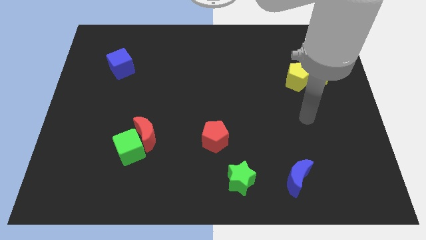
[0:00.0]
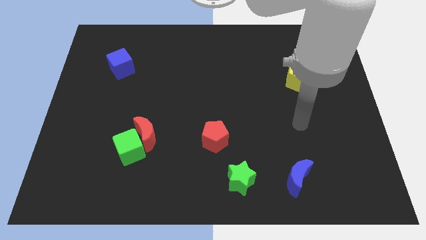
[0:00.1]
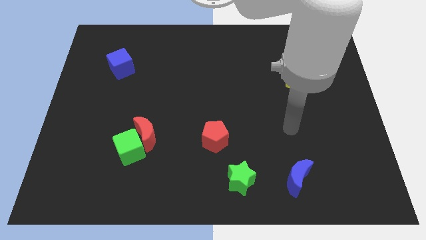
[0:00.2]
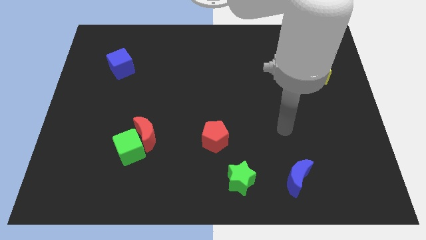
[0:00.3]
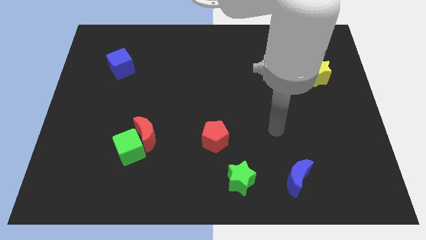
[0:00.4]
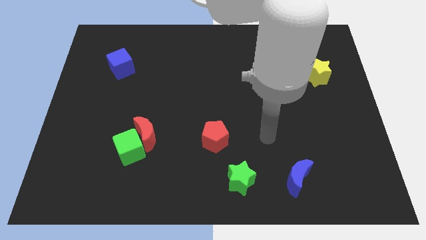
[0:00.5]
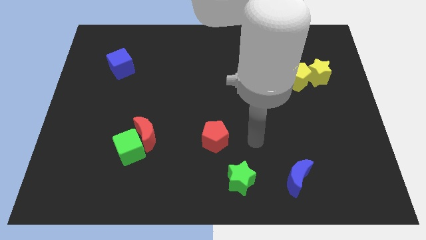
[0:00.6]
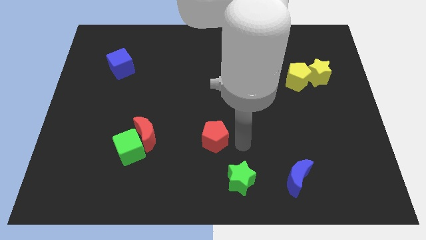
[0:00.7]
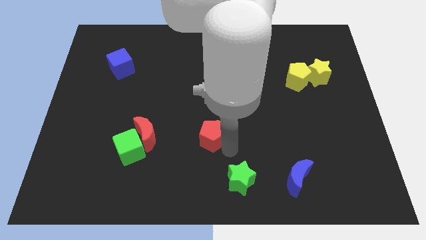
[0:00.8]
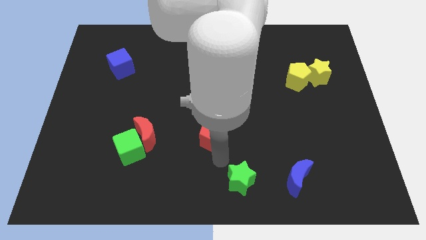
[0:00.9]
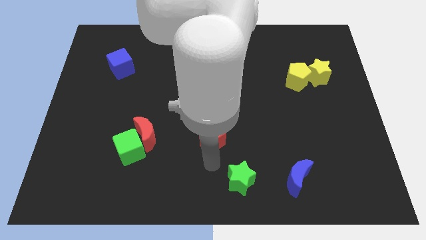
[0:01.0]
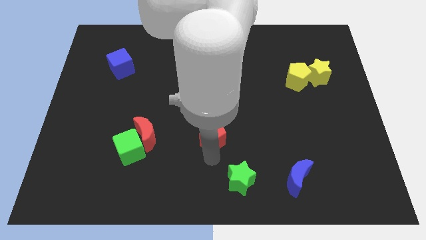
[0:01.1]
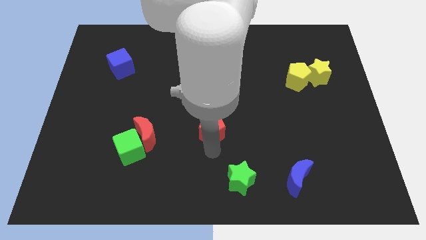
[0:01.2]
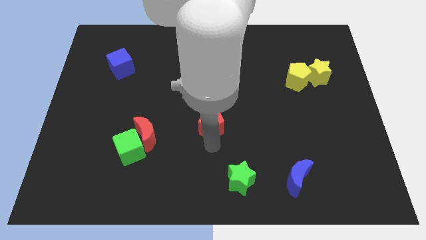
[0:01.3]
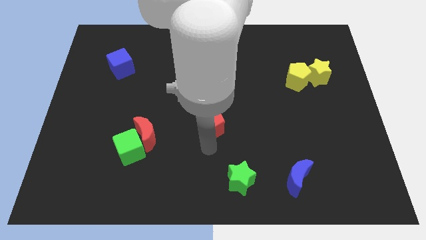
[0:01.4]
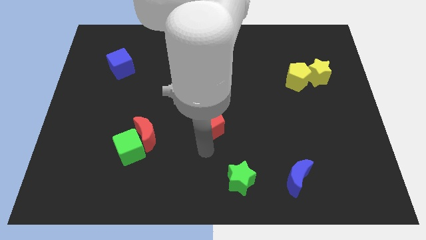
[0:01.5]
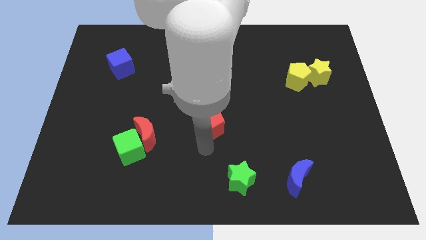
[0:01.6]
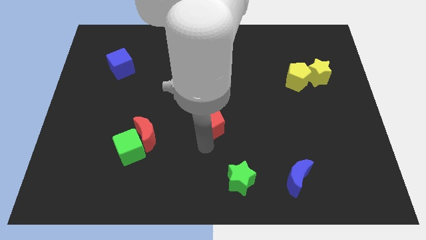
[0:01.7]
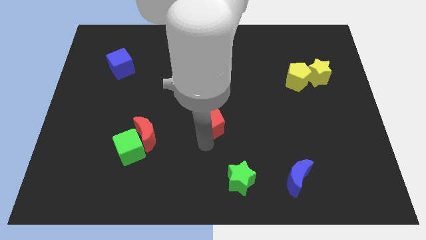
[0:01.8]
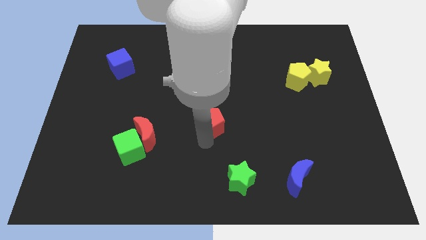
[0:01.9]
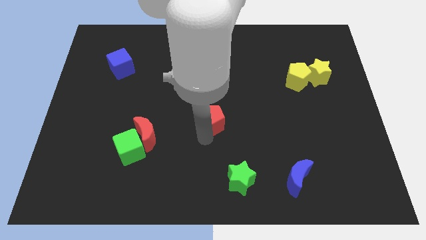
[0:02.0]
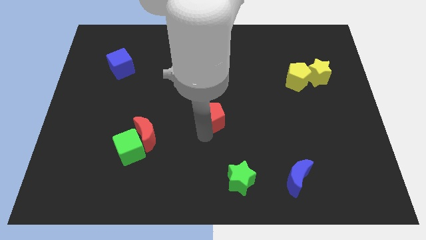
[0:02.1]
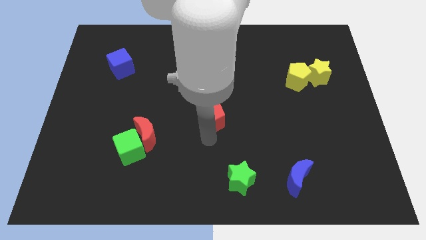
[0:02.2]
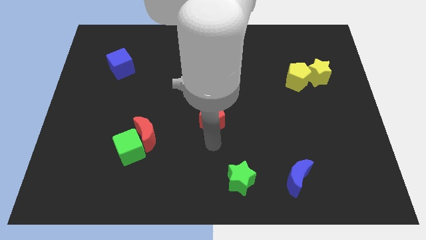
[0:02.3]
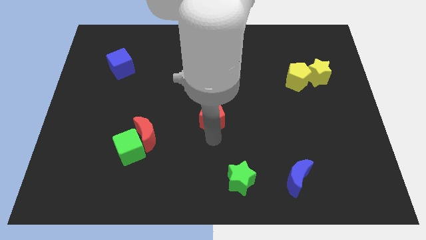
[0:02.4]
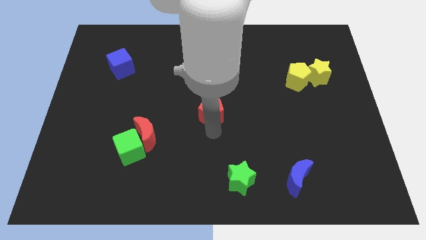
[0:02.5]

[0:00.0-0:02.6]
move the red pentagon slightly upwards

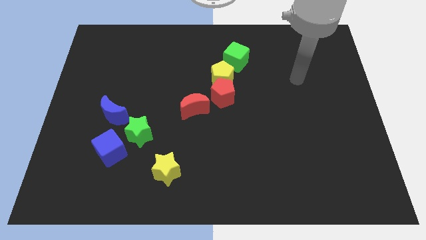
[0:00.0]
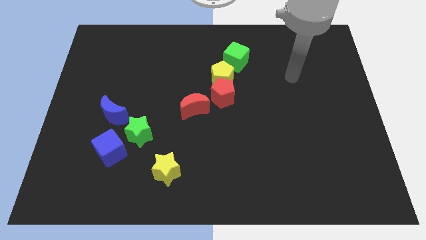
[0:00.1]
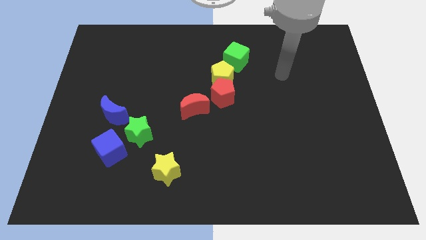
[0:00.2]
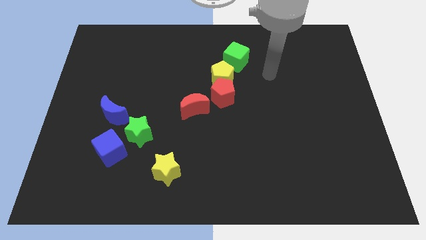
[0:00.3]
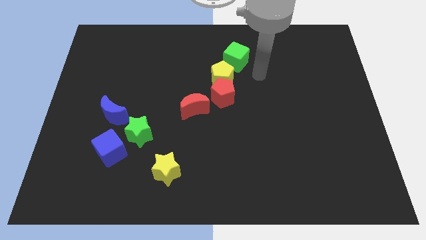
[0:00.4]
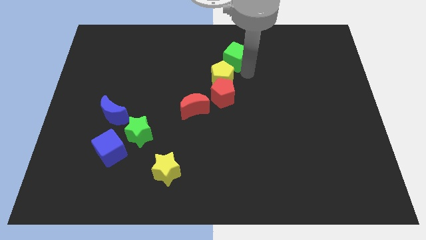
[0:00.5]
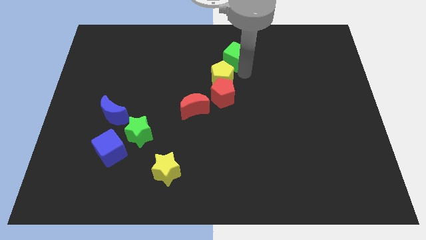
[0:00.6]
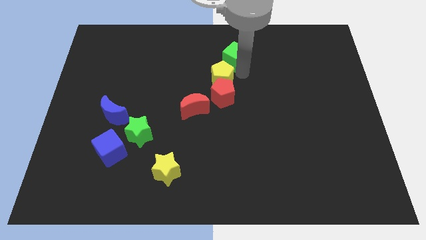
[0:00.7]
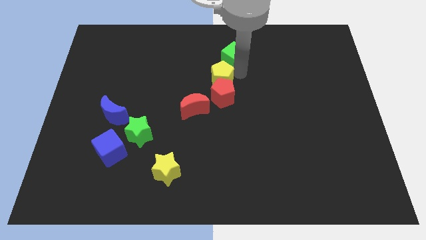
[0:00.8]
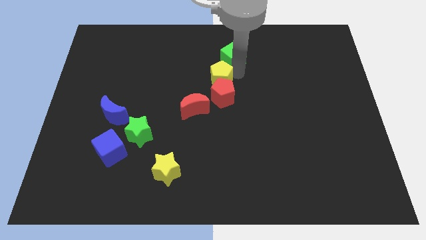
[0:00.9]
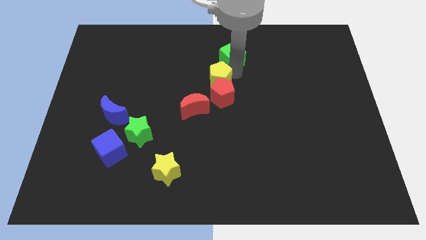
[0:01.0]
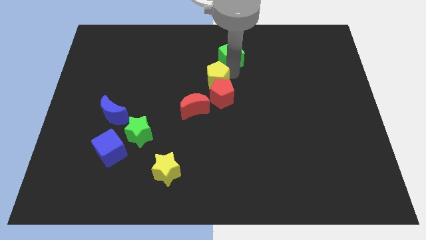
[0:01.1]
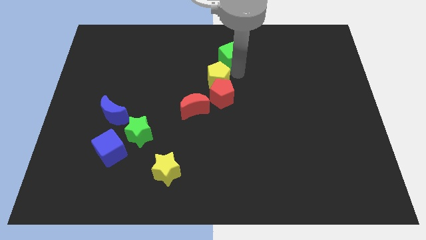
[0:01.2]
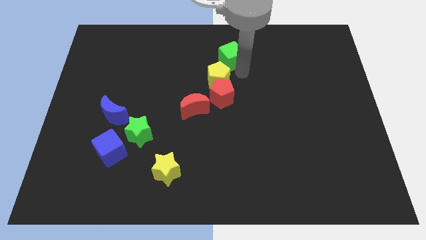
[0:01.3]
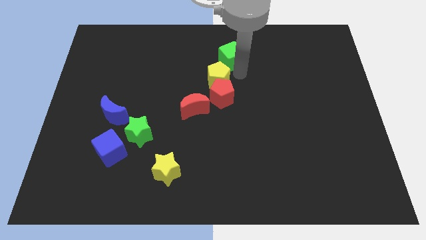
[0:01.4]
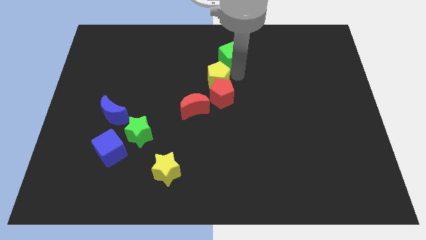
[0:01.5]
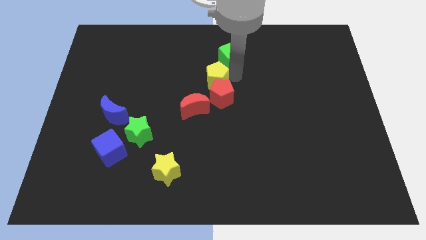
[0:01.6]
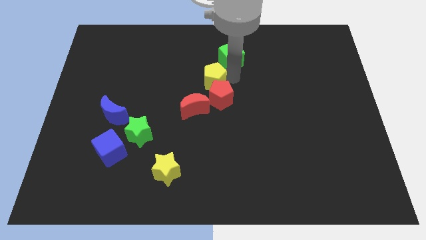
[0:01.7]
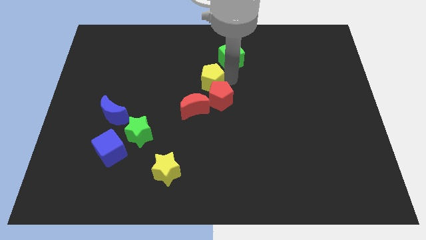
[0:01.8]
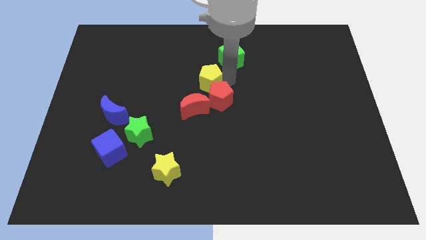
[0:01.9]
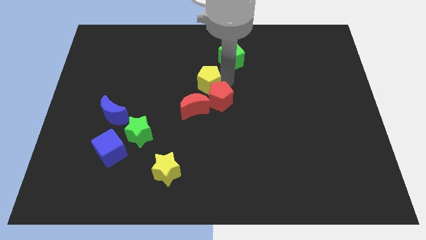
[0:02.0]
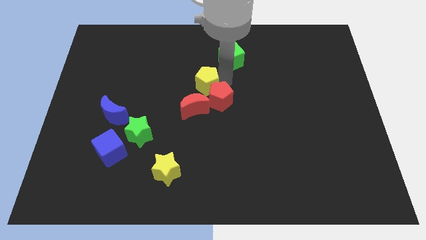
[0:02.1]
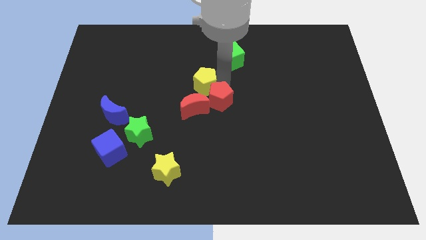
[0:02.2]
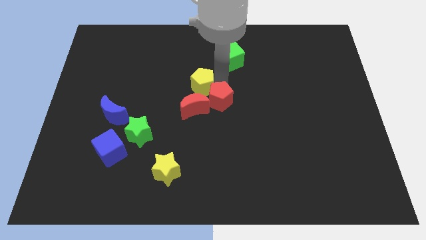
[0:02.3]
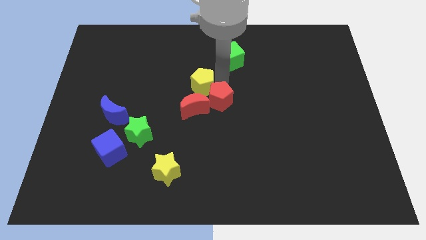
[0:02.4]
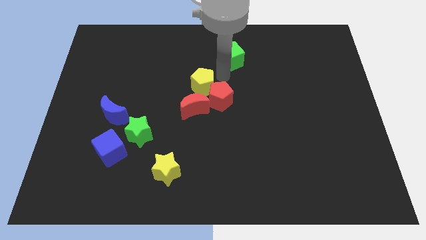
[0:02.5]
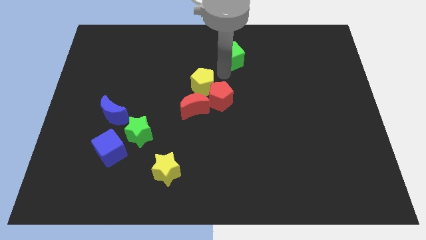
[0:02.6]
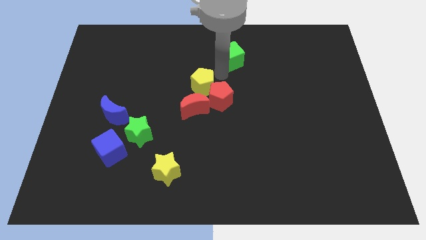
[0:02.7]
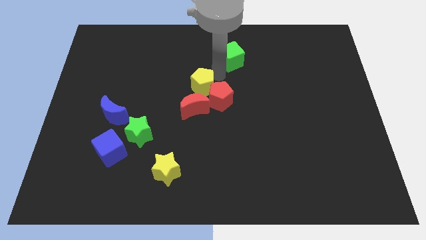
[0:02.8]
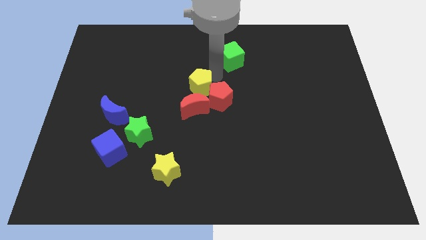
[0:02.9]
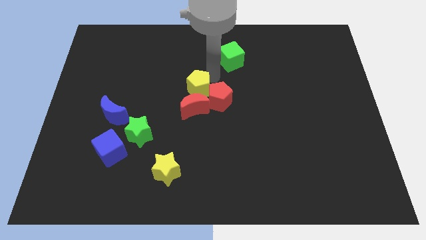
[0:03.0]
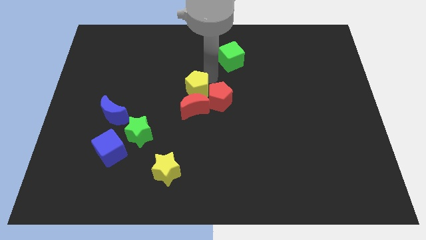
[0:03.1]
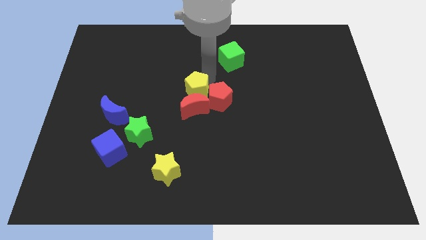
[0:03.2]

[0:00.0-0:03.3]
slide the yellow pentagon downwards and left somewhat

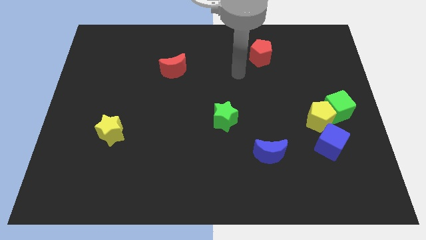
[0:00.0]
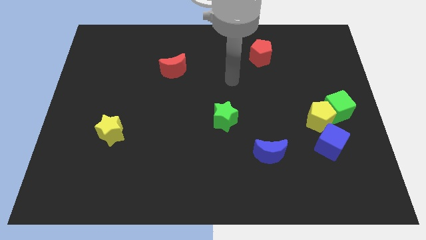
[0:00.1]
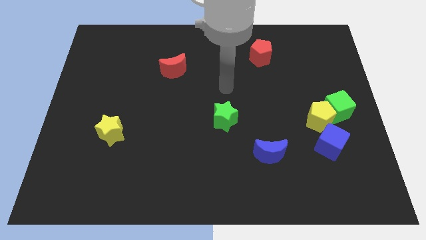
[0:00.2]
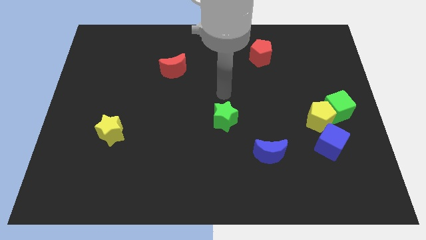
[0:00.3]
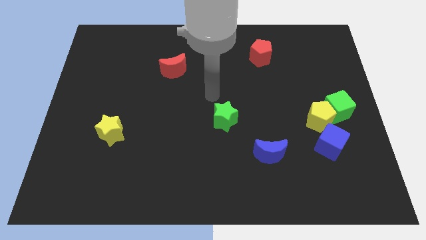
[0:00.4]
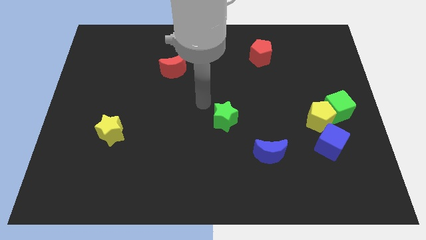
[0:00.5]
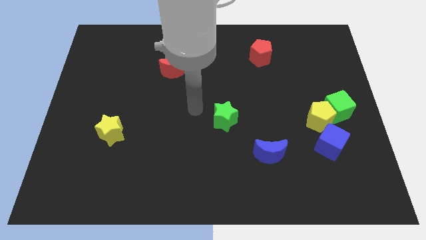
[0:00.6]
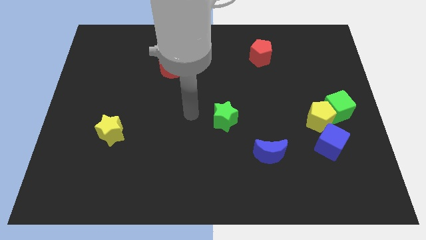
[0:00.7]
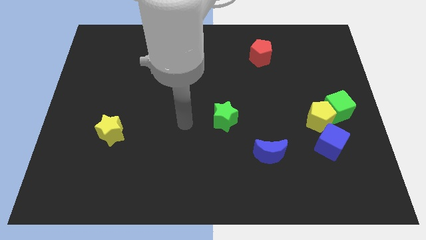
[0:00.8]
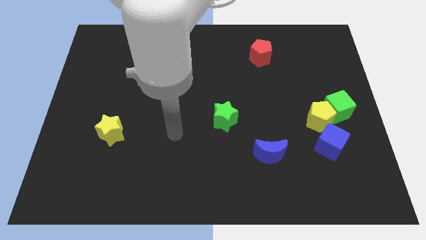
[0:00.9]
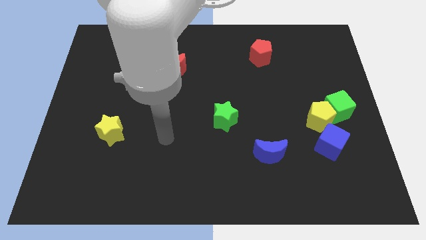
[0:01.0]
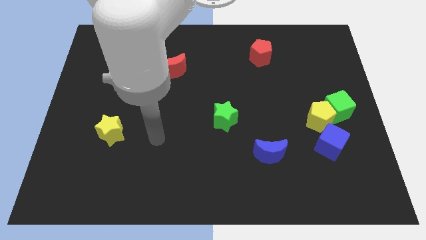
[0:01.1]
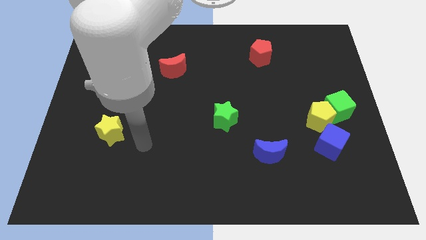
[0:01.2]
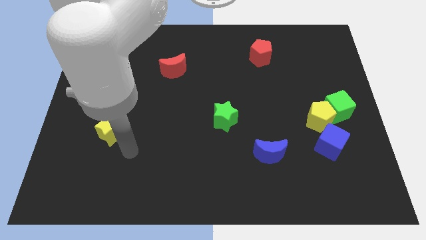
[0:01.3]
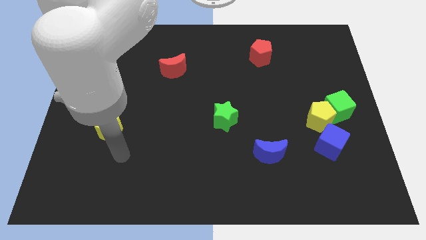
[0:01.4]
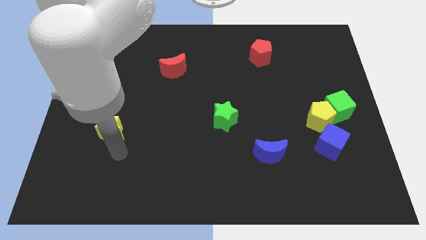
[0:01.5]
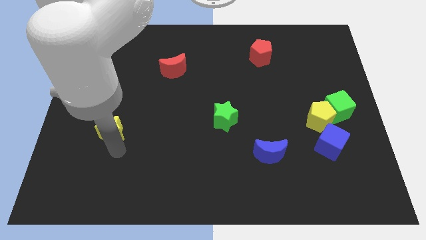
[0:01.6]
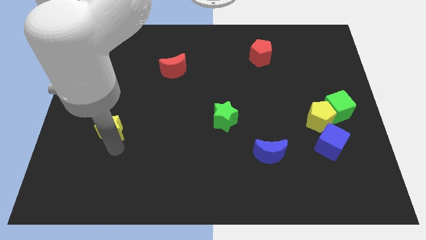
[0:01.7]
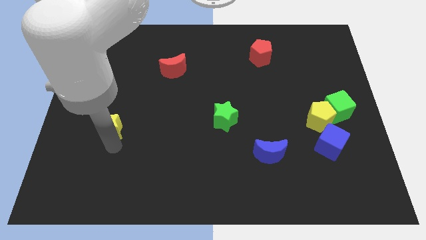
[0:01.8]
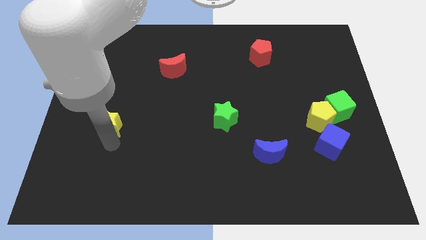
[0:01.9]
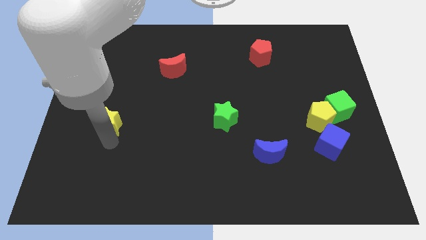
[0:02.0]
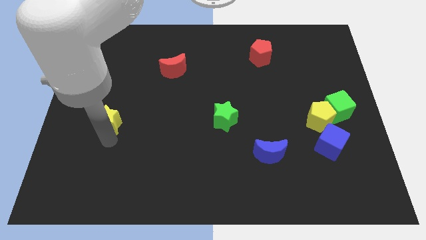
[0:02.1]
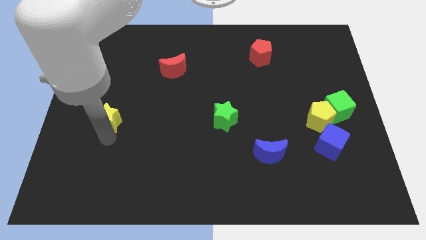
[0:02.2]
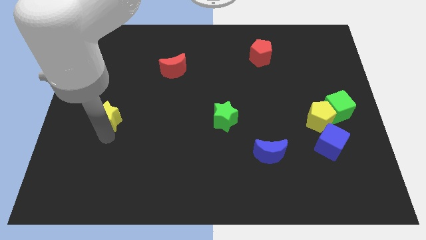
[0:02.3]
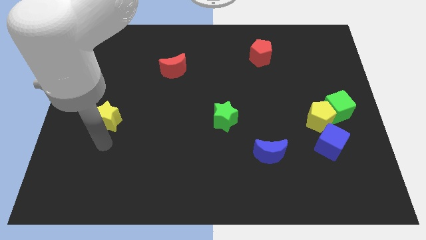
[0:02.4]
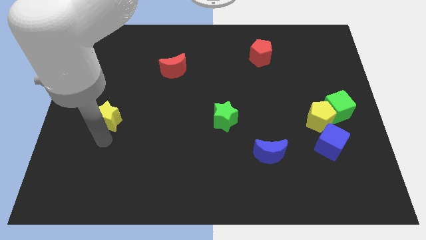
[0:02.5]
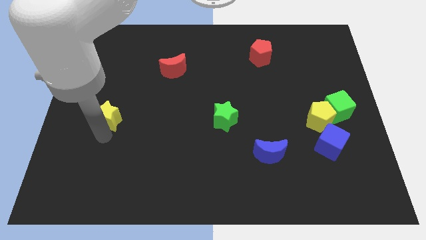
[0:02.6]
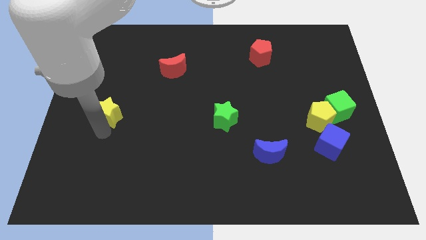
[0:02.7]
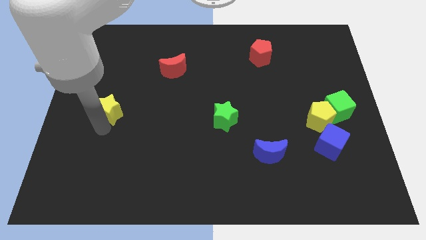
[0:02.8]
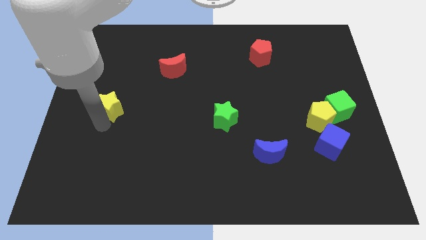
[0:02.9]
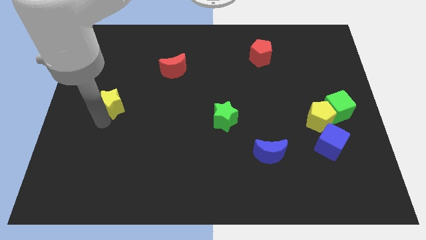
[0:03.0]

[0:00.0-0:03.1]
push the yellow star up somewhat
